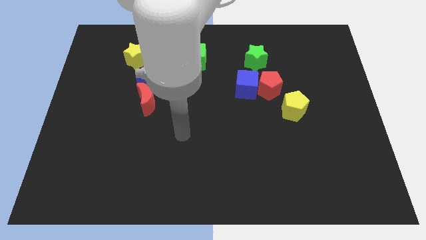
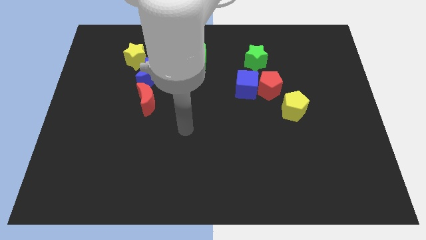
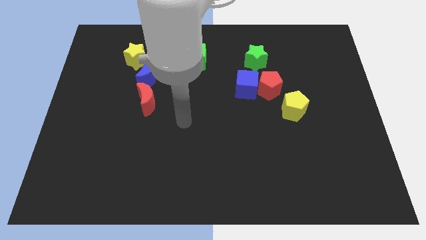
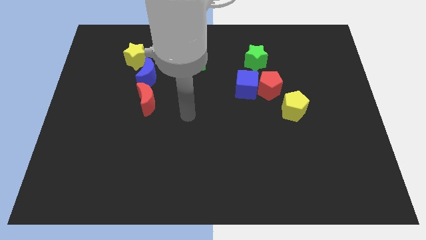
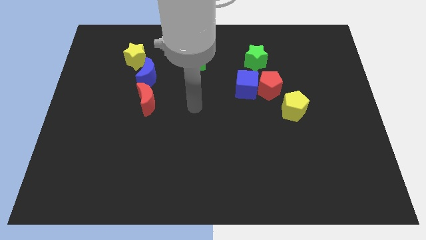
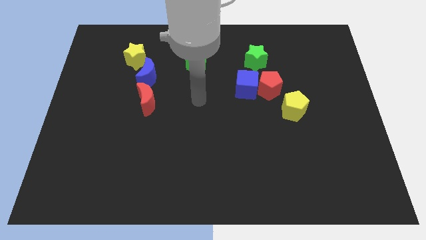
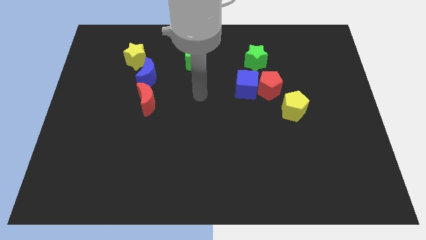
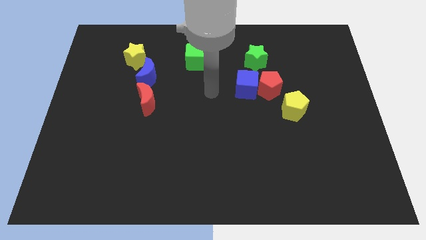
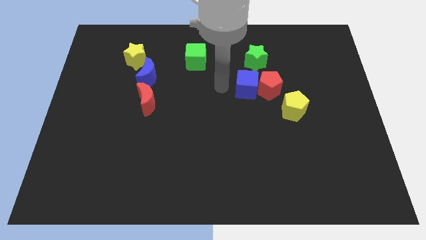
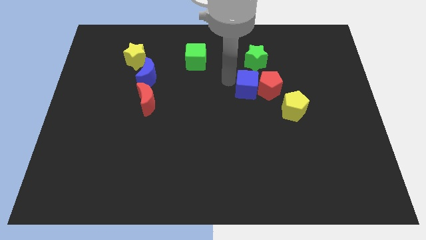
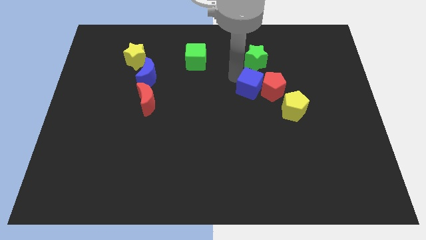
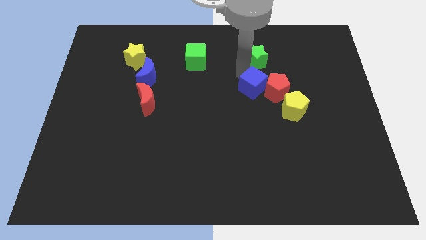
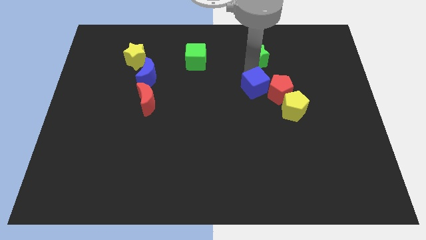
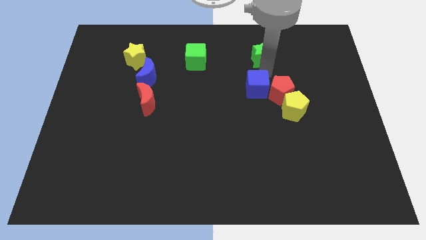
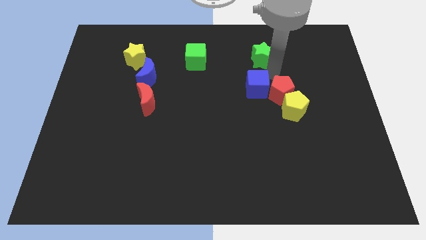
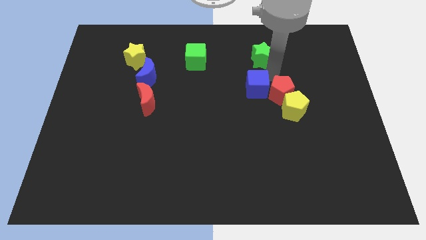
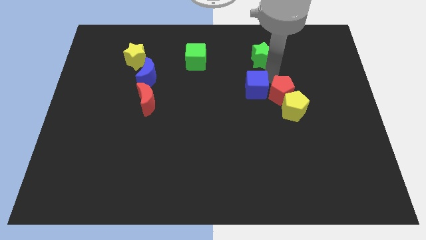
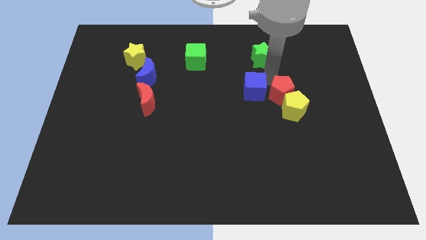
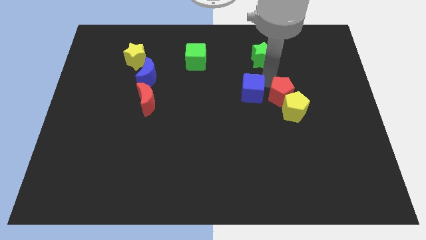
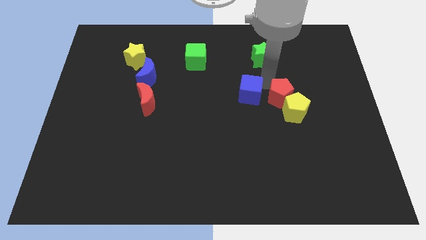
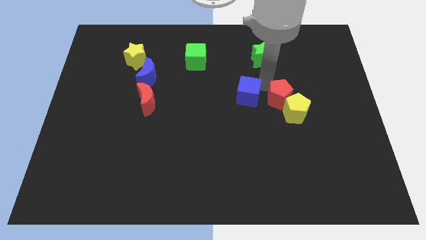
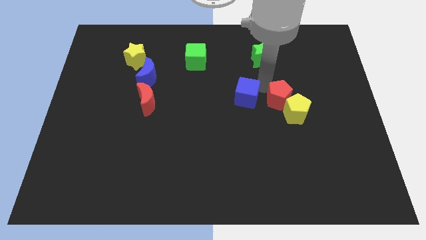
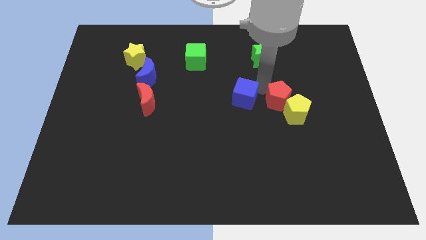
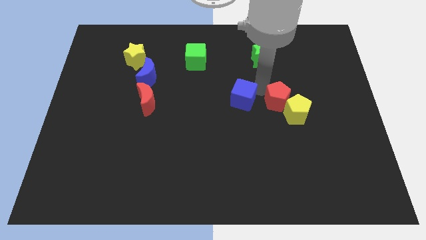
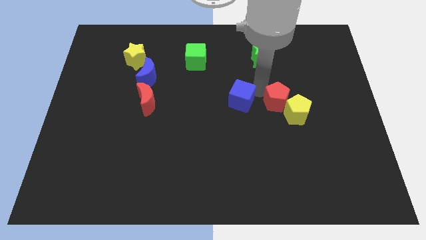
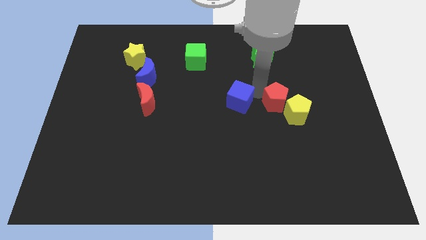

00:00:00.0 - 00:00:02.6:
separate the blue cube from the red pentagon and green star

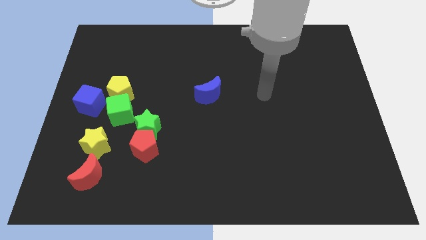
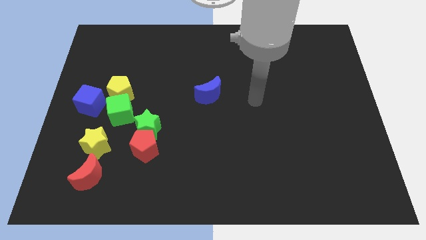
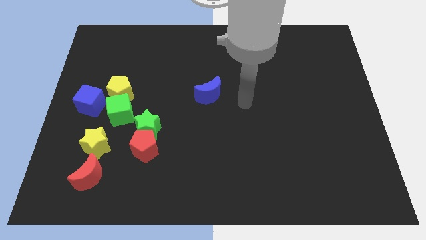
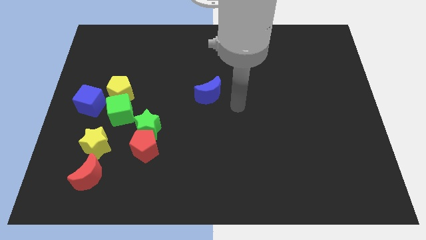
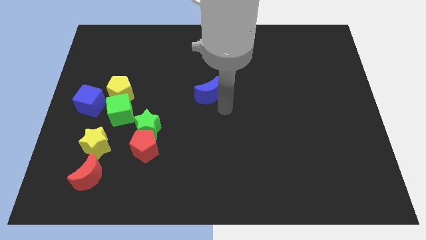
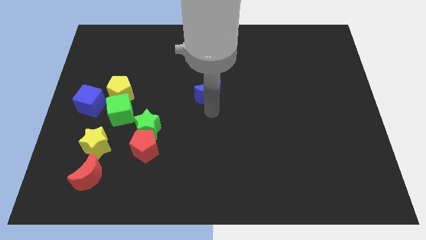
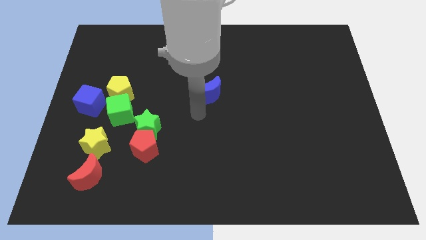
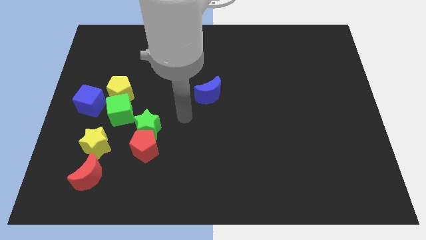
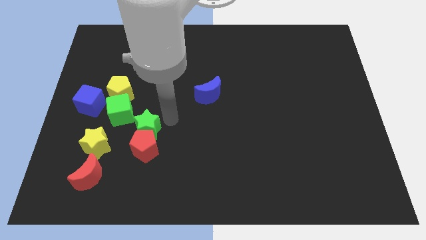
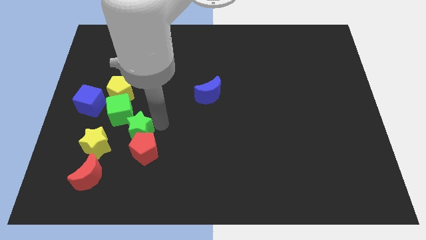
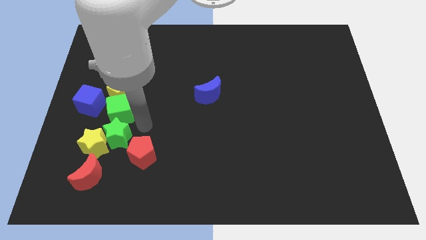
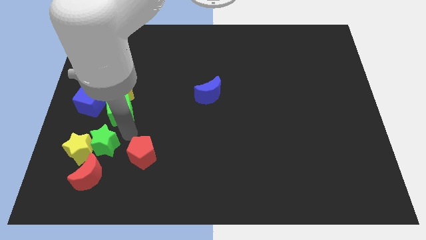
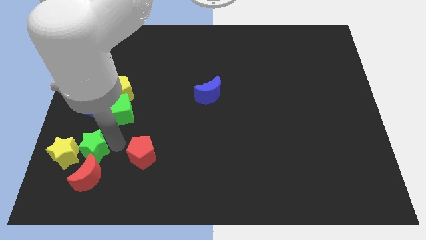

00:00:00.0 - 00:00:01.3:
pull the red pentagon apart from the green star

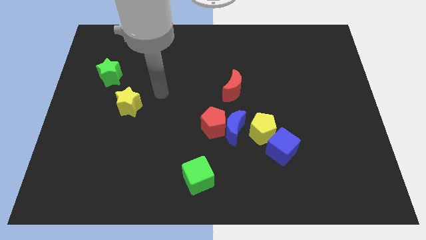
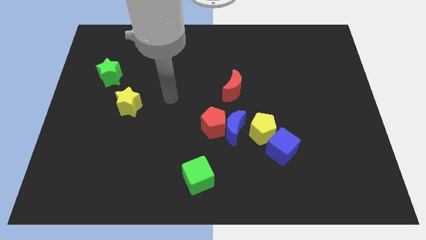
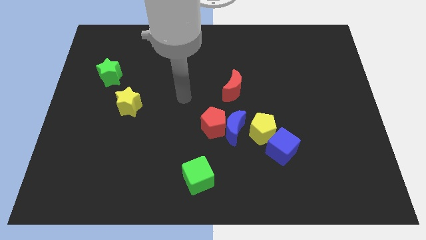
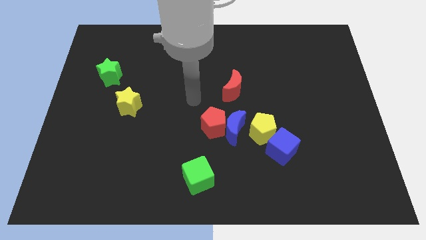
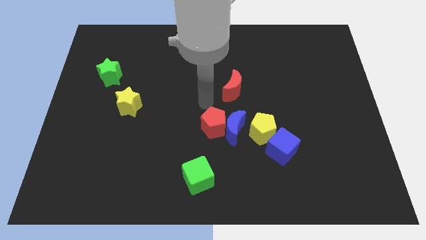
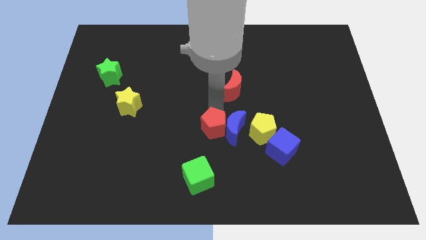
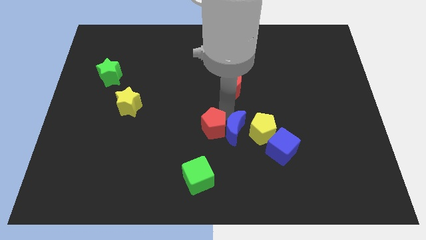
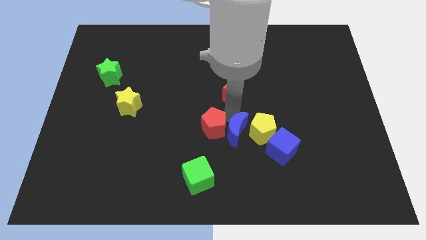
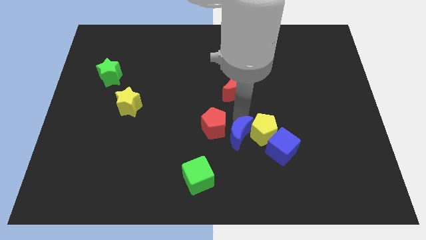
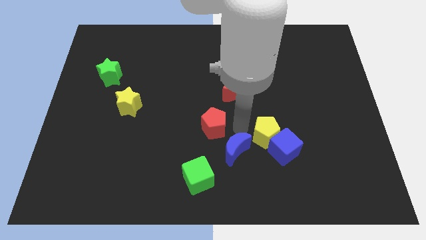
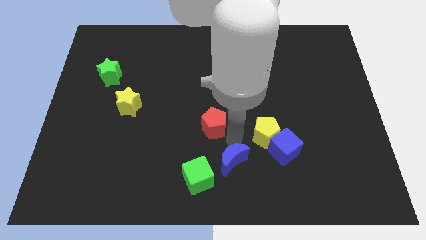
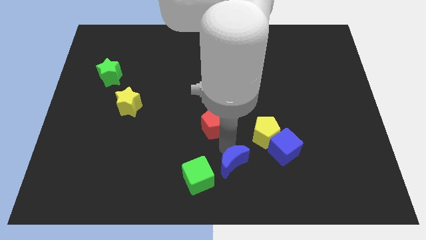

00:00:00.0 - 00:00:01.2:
move the red pentagon away from the blue moon

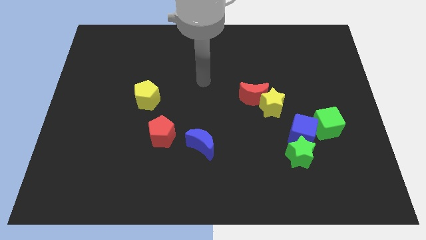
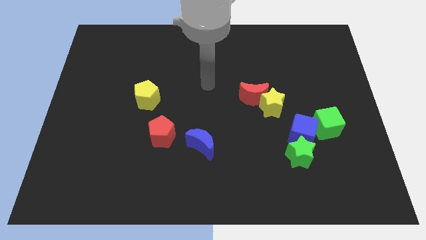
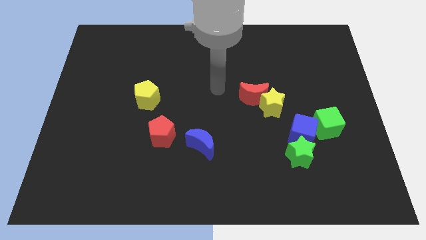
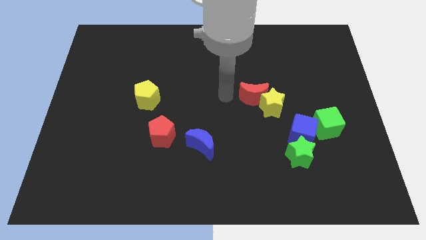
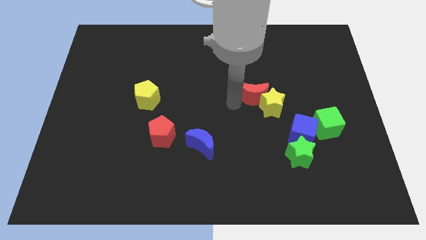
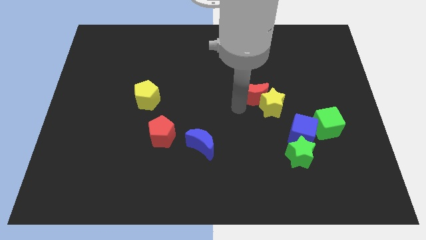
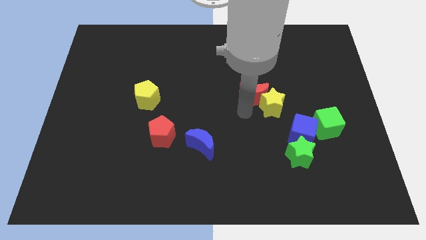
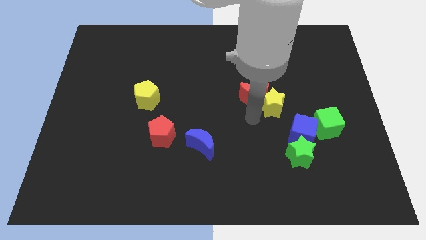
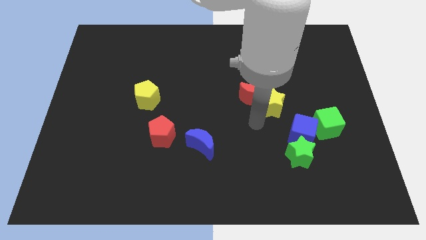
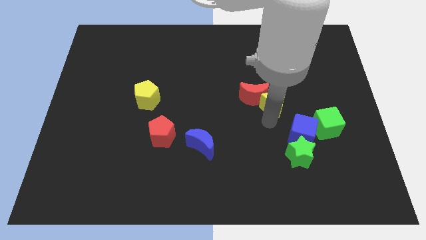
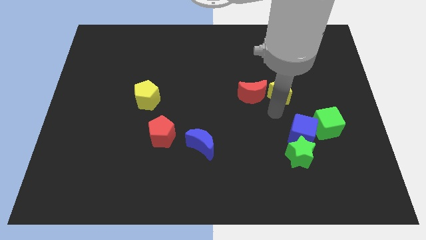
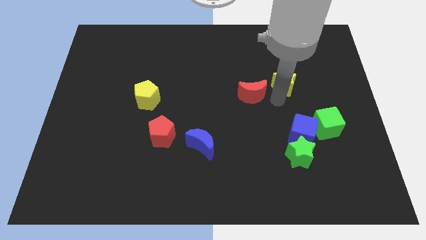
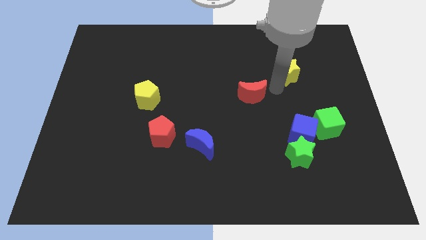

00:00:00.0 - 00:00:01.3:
pull the red moon apart from the yellow star

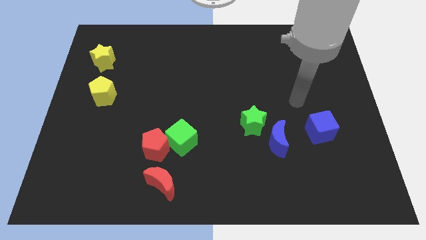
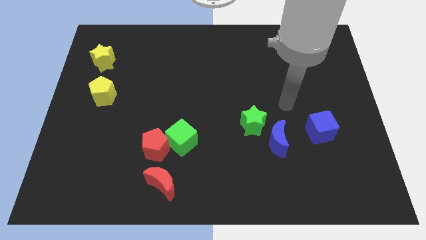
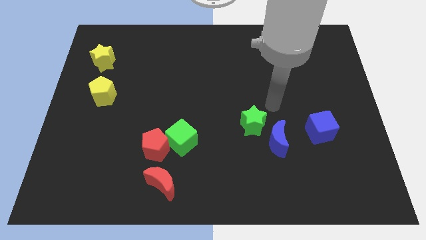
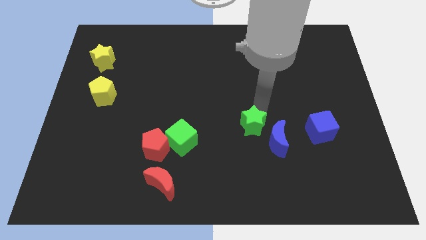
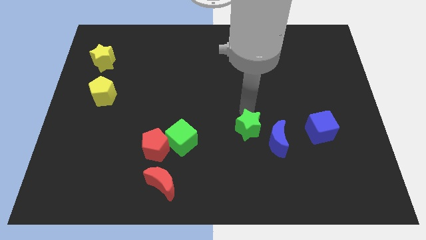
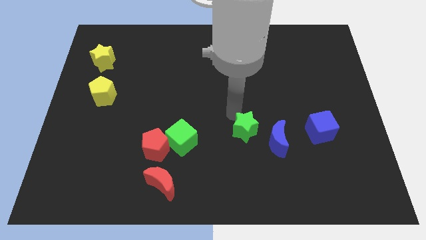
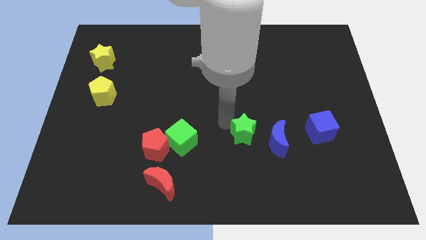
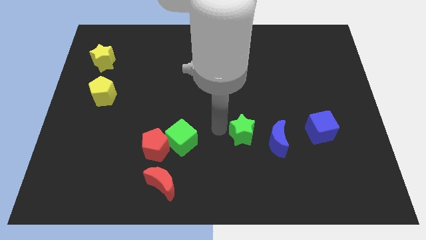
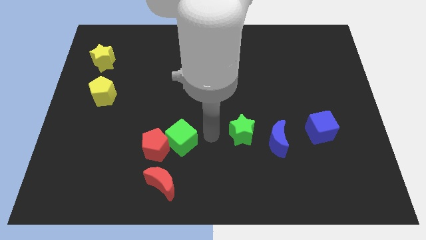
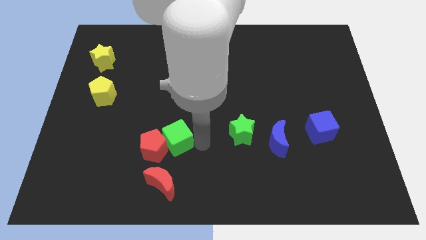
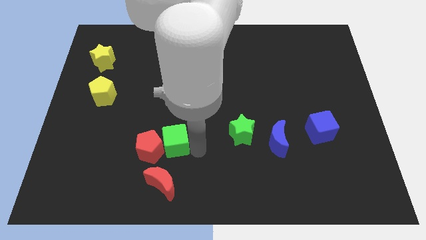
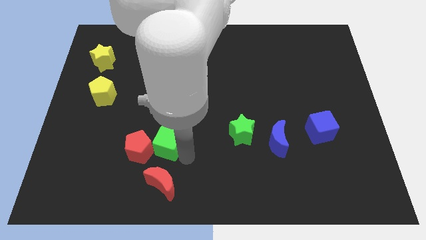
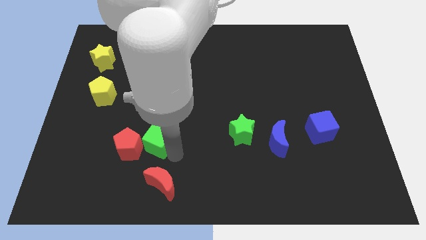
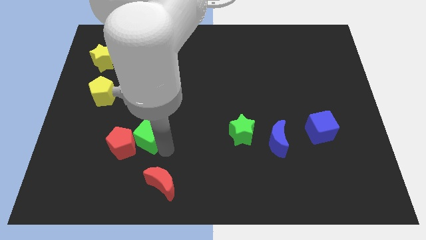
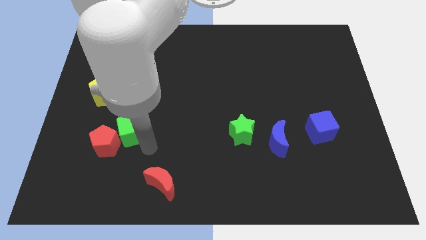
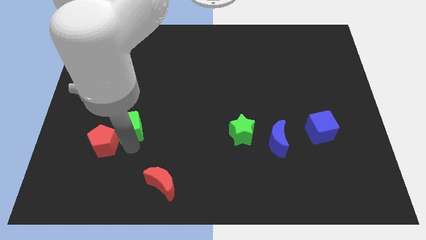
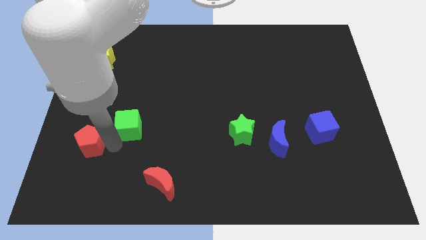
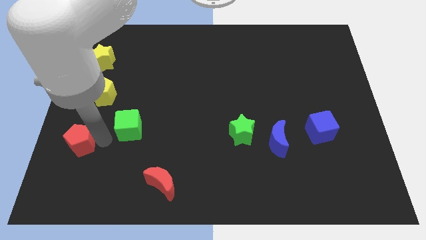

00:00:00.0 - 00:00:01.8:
pull the green cube apart from the red pentagon

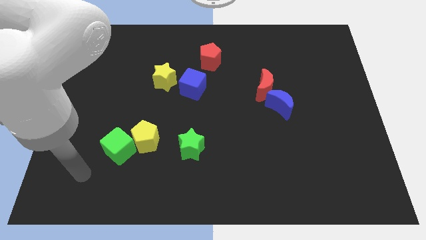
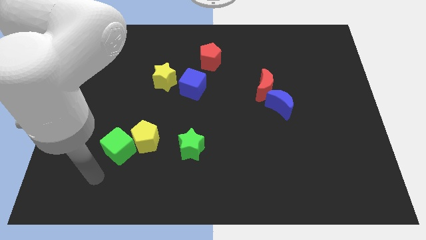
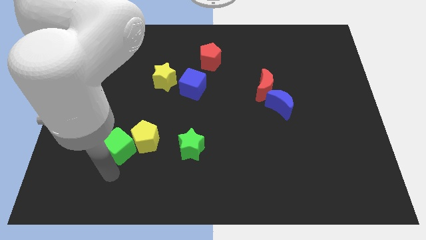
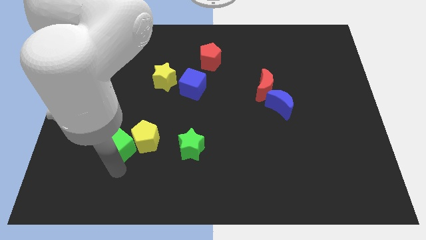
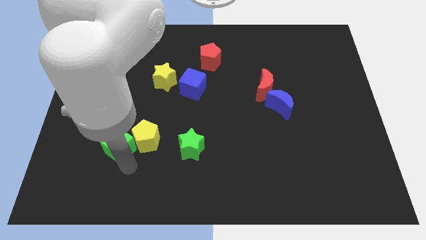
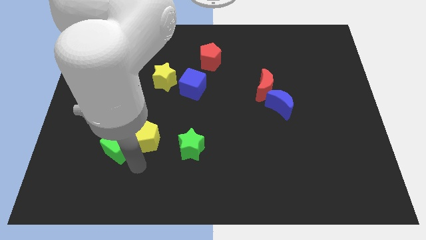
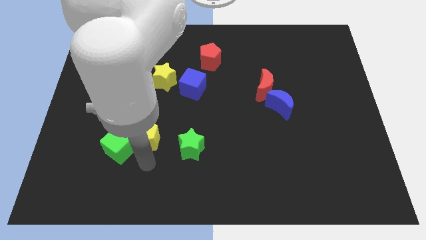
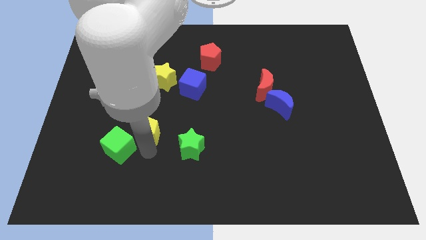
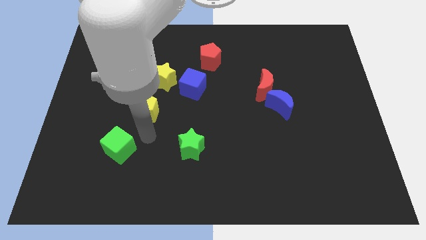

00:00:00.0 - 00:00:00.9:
pull the green cube apart from the yellow pentagon

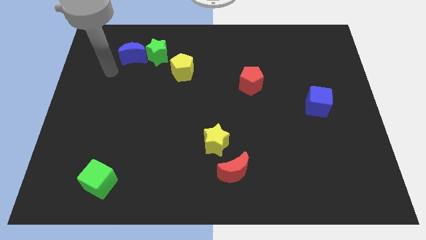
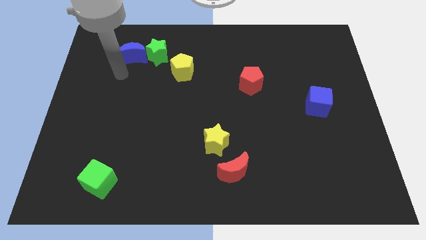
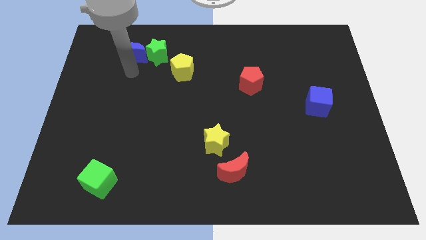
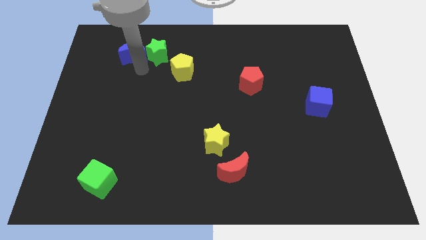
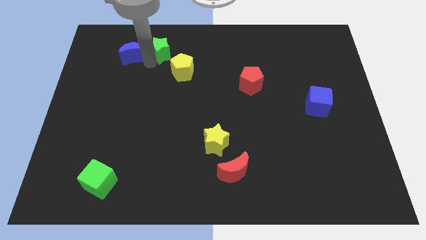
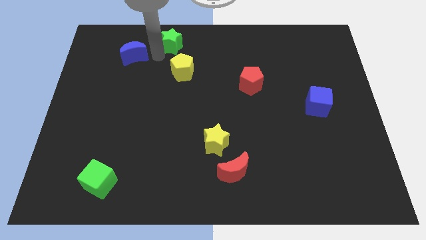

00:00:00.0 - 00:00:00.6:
separate the blue moon from the green star
